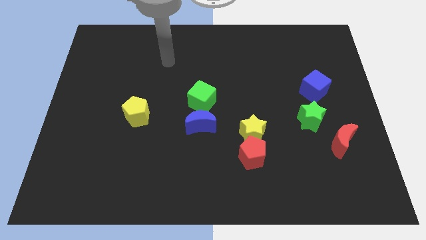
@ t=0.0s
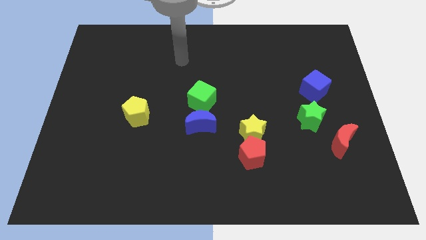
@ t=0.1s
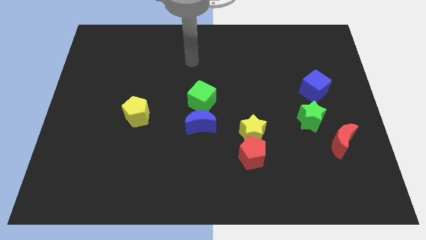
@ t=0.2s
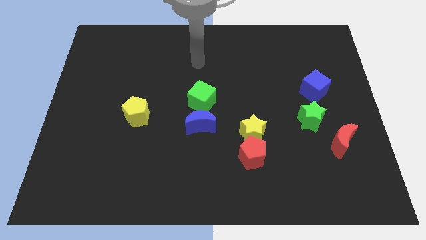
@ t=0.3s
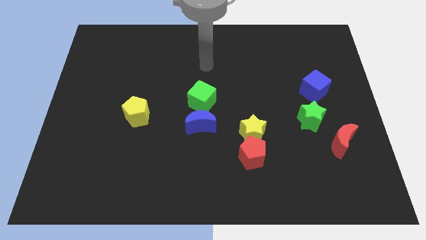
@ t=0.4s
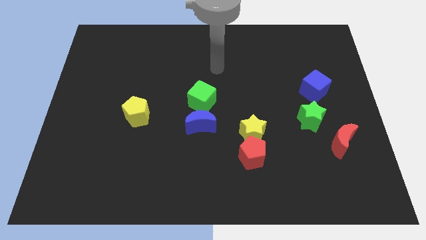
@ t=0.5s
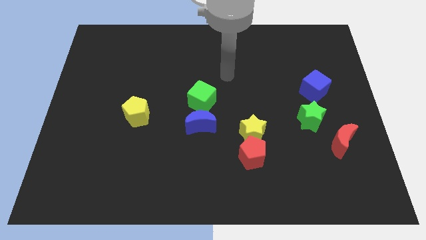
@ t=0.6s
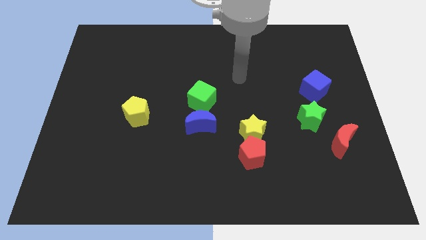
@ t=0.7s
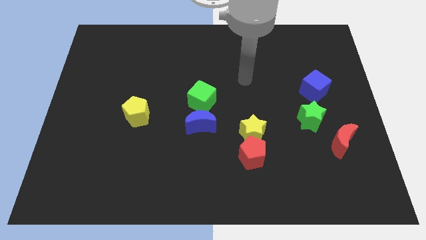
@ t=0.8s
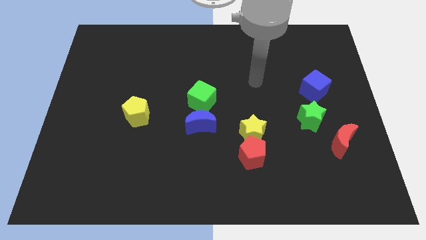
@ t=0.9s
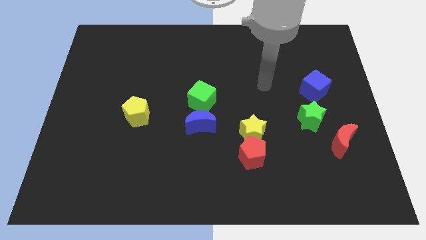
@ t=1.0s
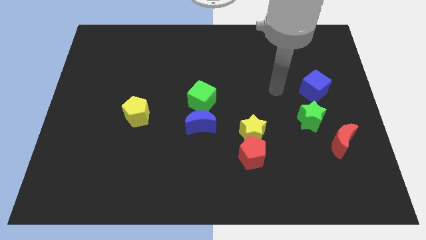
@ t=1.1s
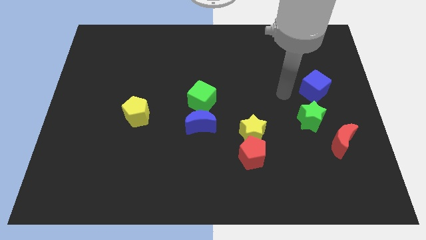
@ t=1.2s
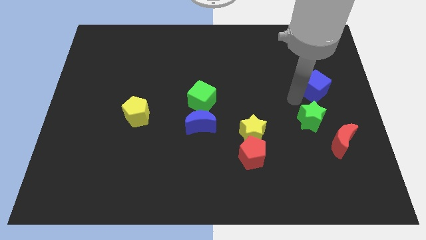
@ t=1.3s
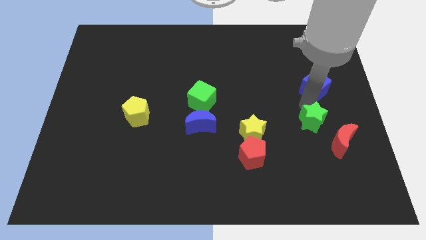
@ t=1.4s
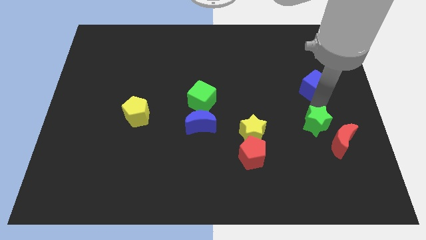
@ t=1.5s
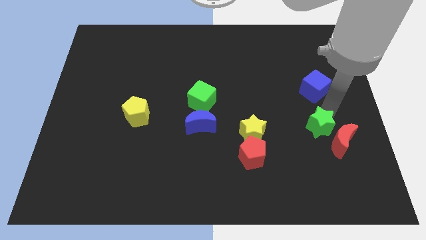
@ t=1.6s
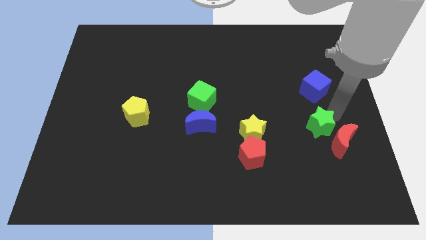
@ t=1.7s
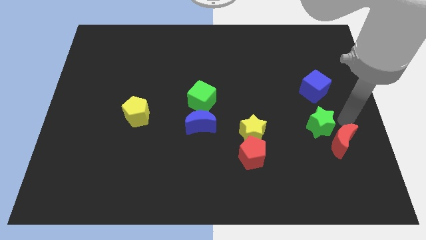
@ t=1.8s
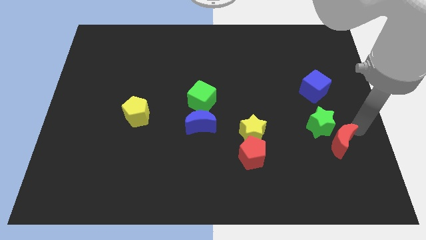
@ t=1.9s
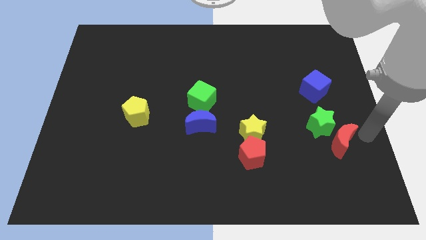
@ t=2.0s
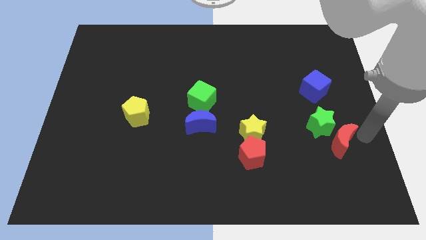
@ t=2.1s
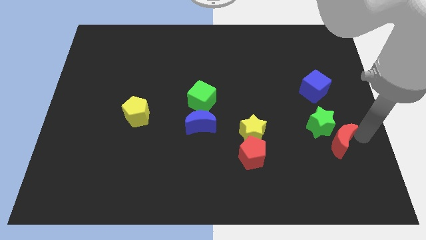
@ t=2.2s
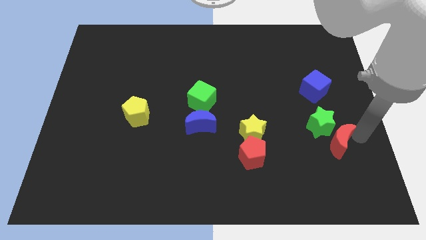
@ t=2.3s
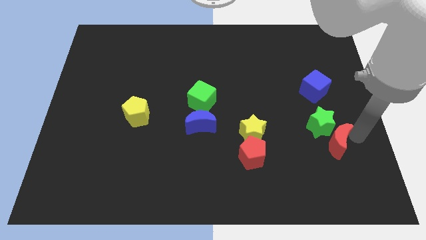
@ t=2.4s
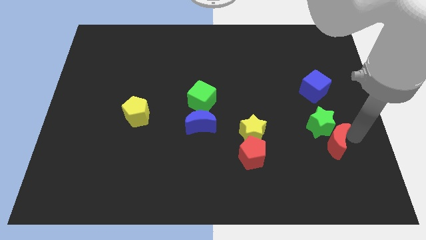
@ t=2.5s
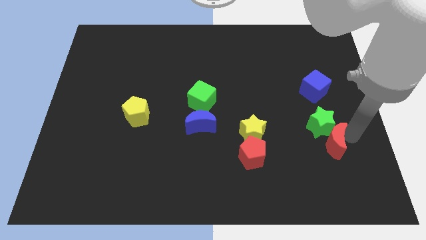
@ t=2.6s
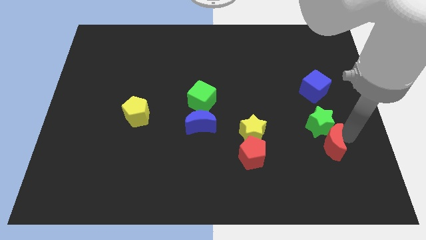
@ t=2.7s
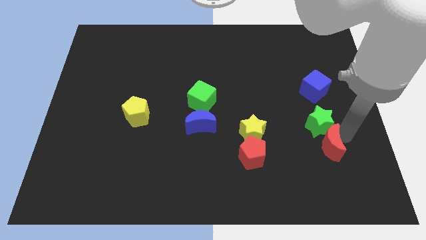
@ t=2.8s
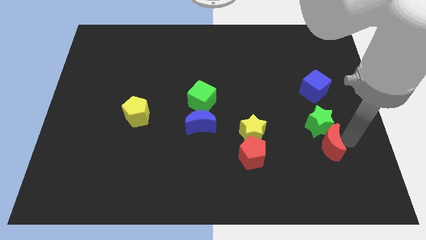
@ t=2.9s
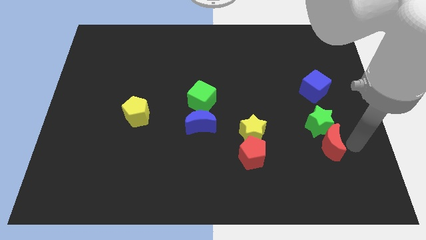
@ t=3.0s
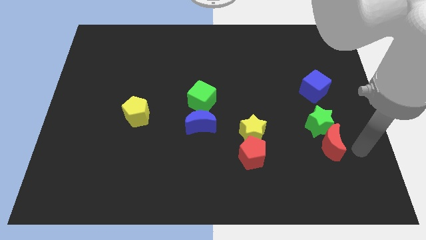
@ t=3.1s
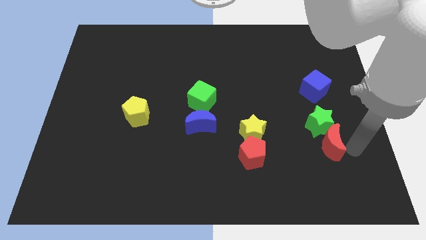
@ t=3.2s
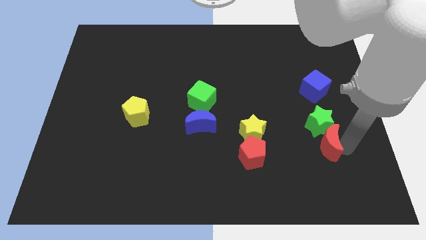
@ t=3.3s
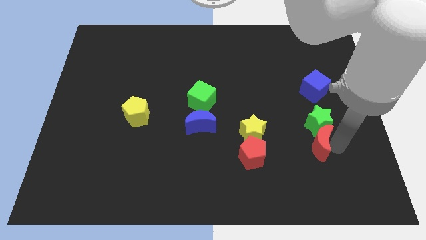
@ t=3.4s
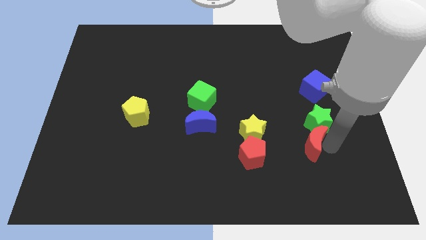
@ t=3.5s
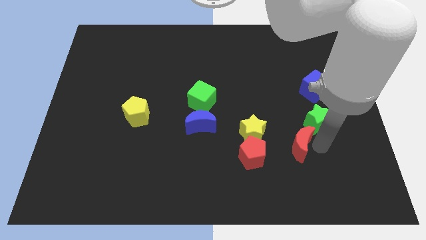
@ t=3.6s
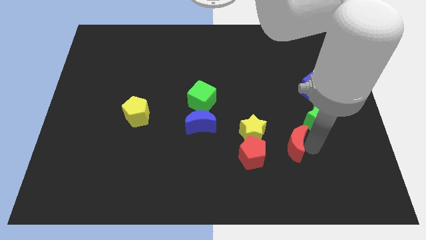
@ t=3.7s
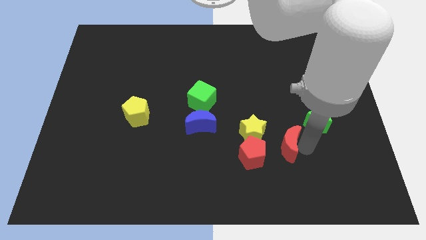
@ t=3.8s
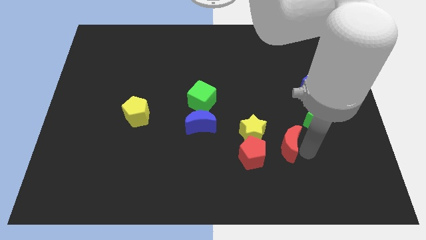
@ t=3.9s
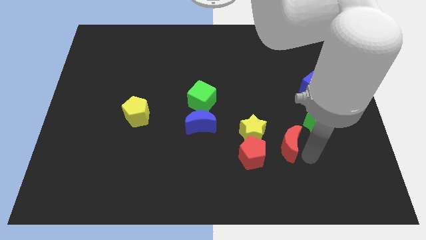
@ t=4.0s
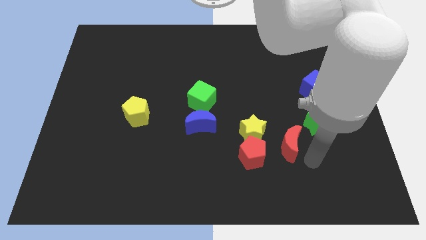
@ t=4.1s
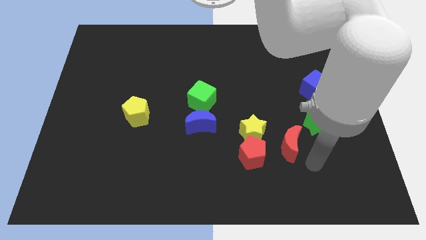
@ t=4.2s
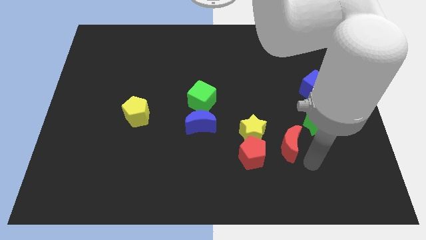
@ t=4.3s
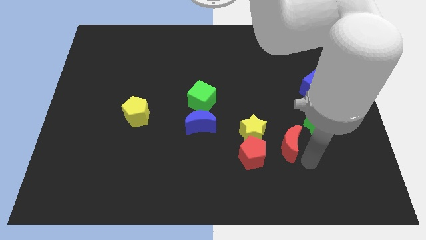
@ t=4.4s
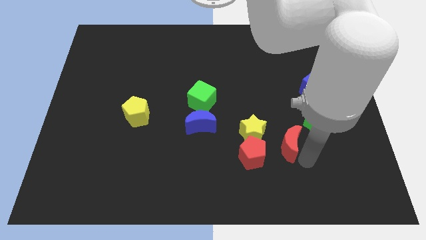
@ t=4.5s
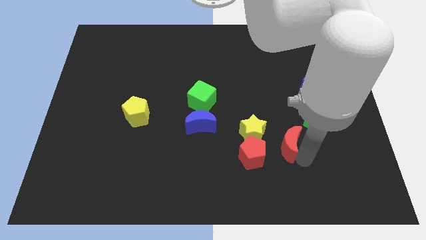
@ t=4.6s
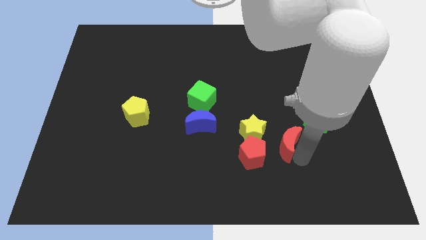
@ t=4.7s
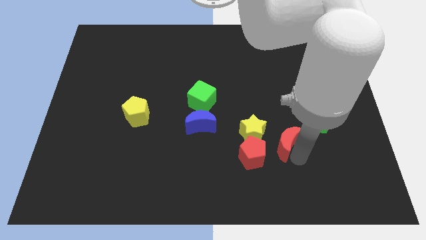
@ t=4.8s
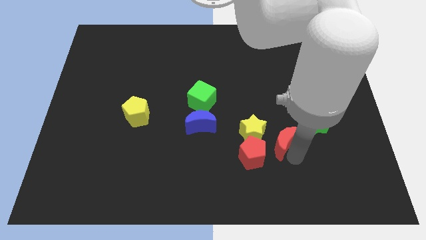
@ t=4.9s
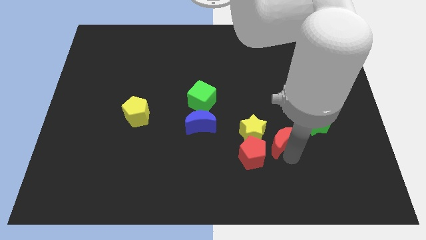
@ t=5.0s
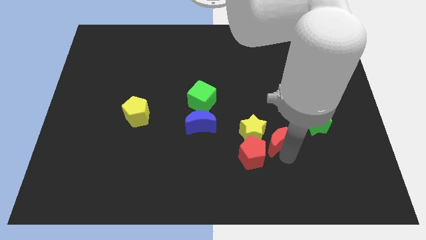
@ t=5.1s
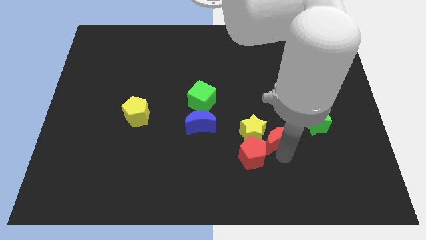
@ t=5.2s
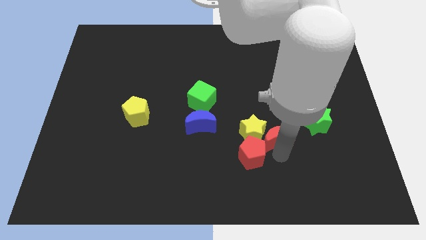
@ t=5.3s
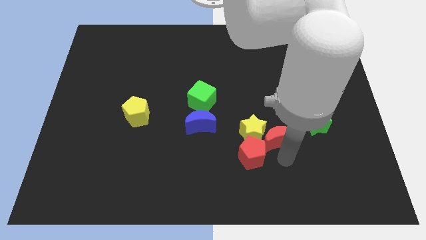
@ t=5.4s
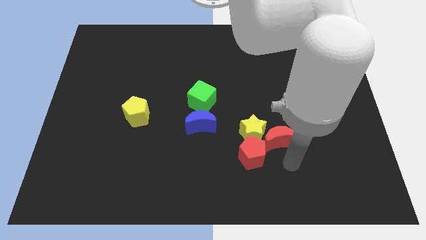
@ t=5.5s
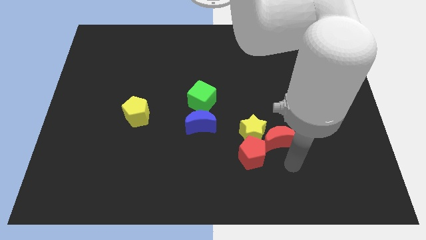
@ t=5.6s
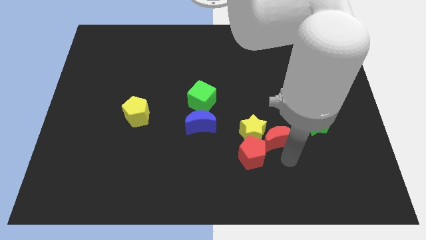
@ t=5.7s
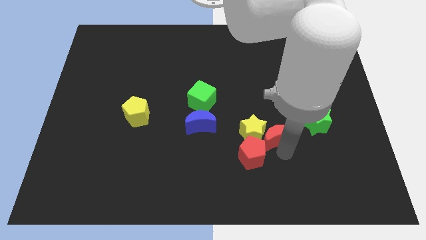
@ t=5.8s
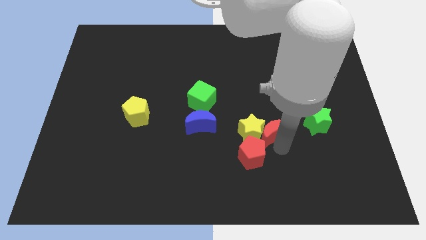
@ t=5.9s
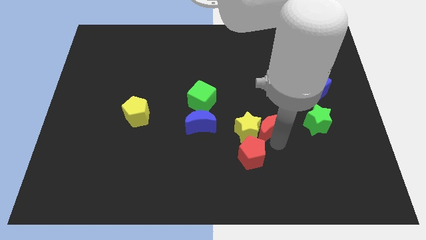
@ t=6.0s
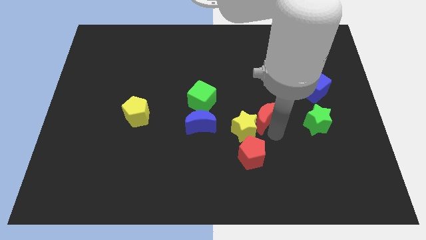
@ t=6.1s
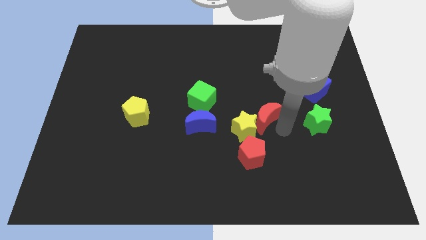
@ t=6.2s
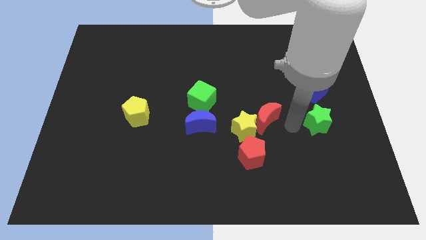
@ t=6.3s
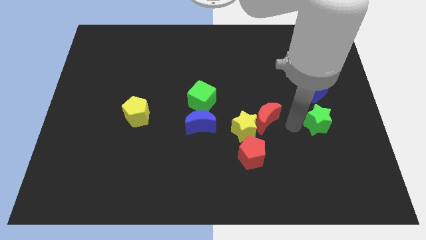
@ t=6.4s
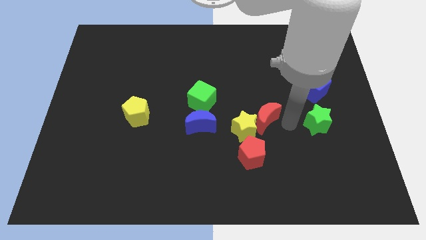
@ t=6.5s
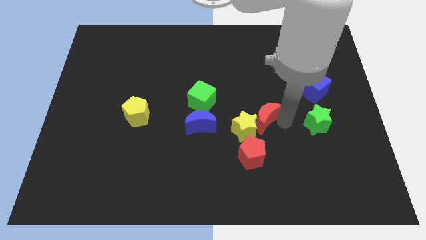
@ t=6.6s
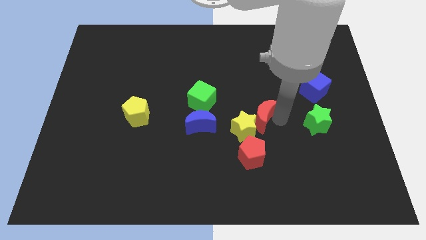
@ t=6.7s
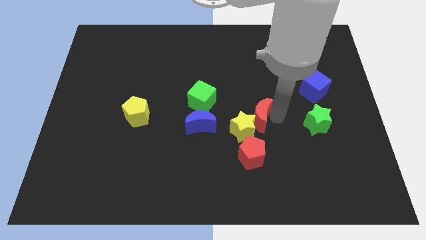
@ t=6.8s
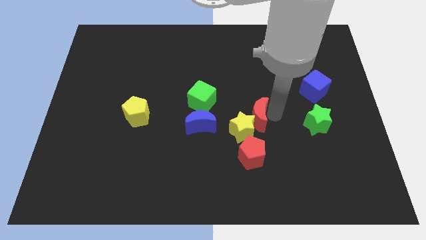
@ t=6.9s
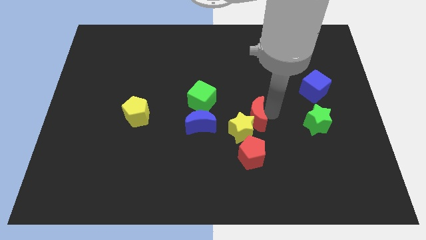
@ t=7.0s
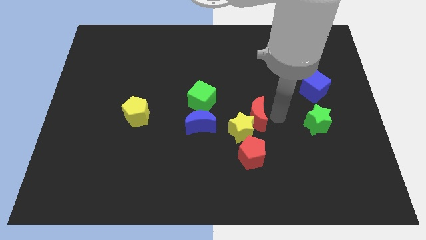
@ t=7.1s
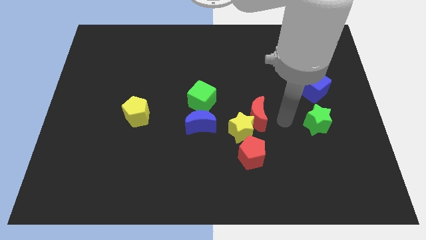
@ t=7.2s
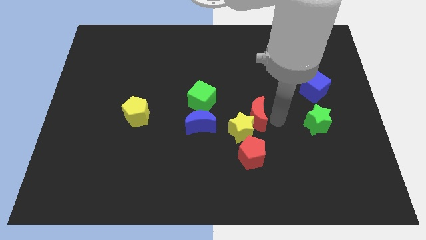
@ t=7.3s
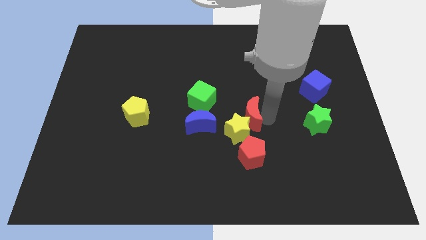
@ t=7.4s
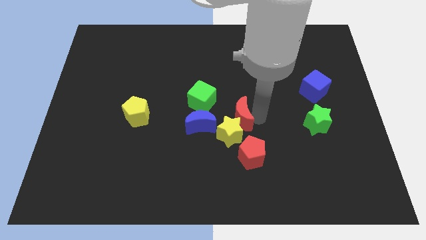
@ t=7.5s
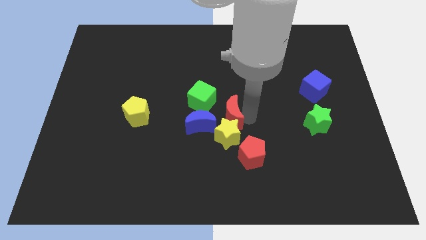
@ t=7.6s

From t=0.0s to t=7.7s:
push the red moon diagonally up and to the left of the yellow star
